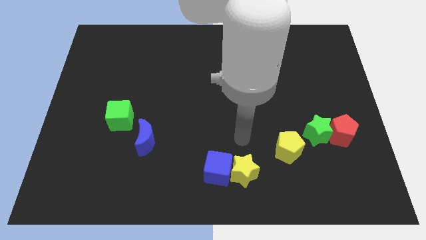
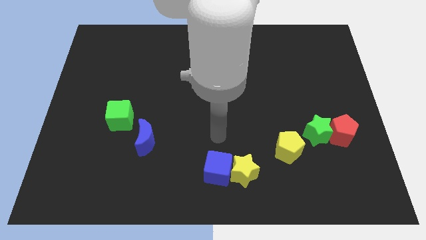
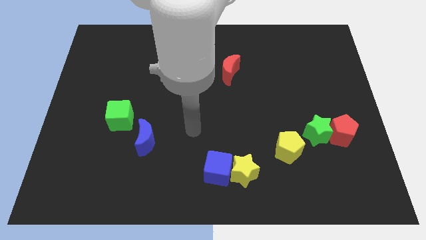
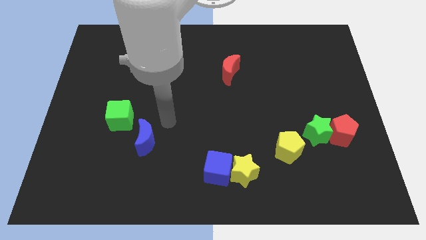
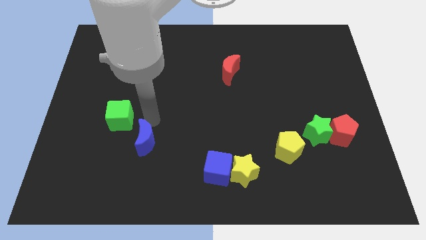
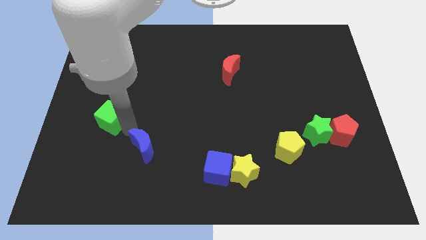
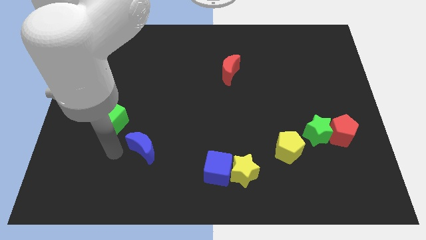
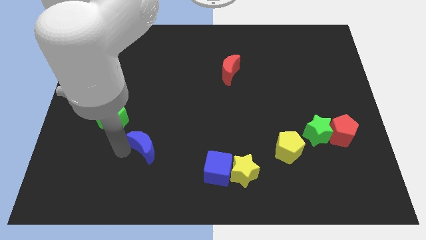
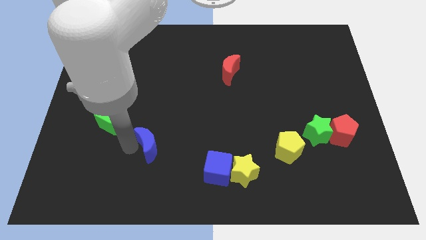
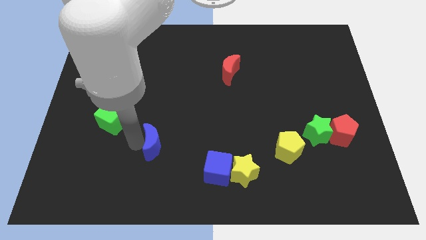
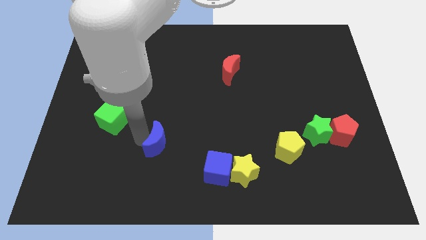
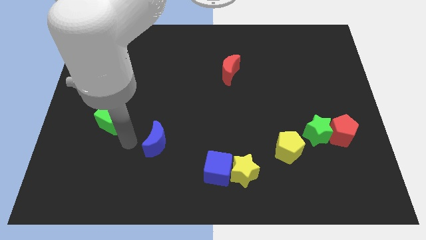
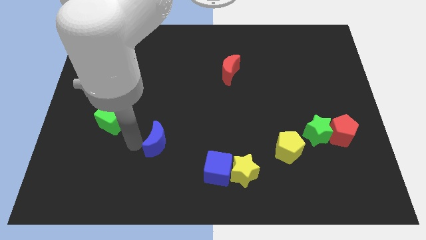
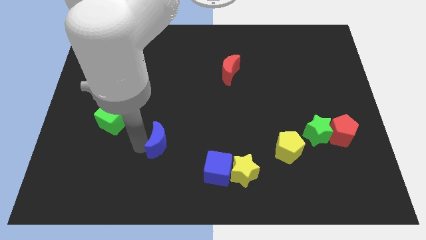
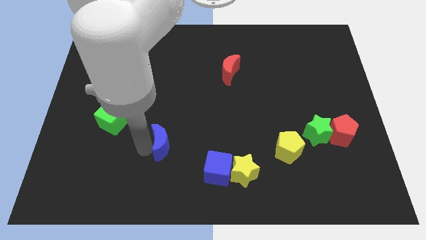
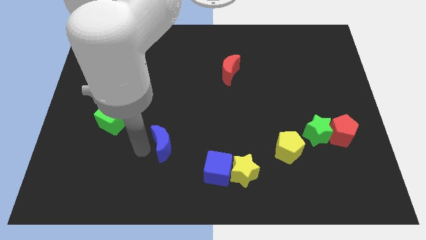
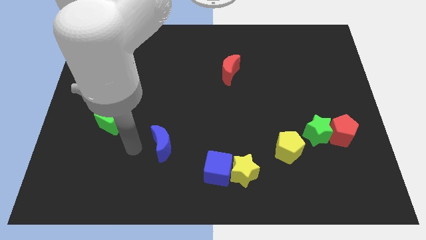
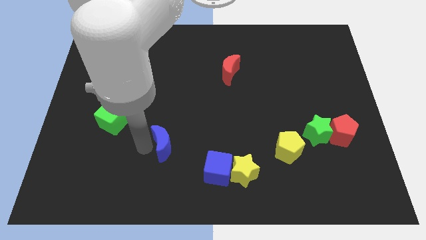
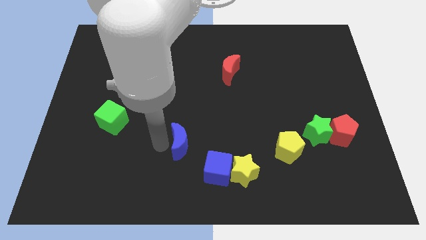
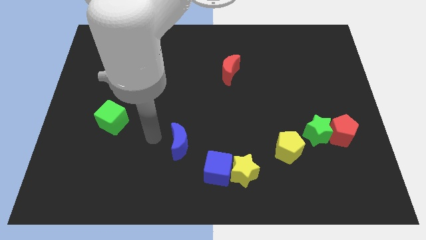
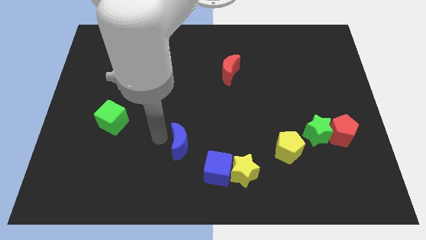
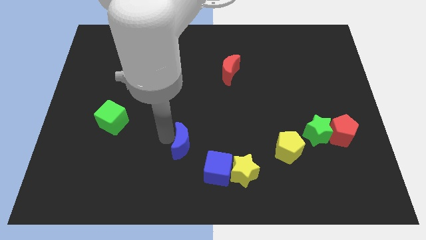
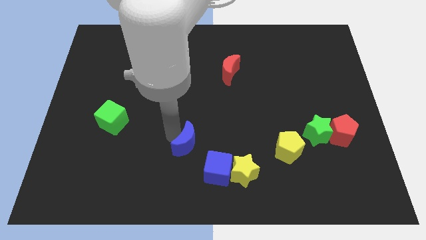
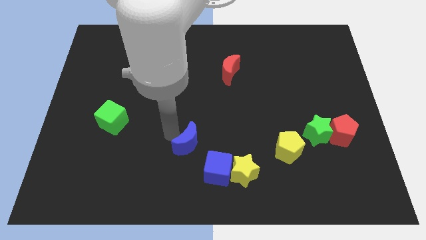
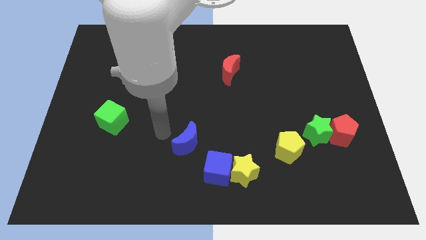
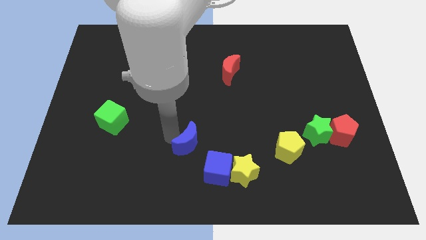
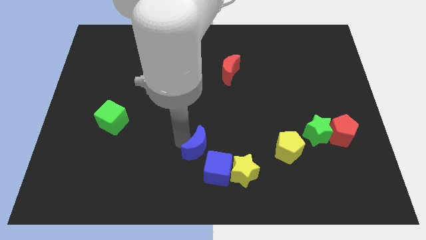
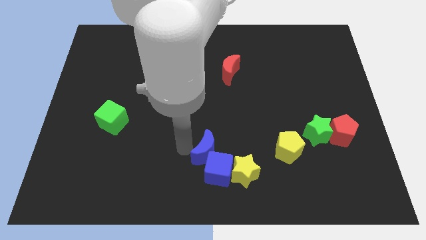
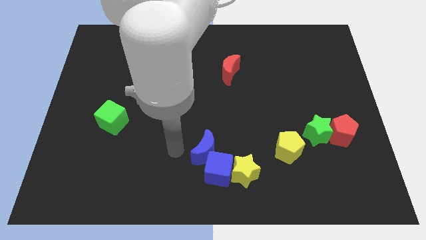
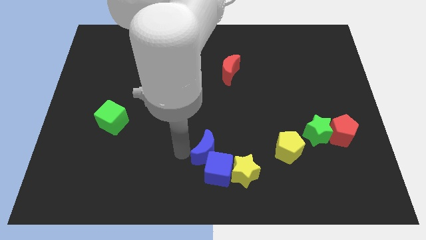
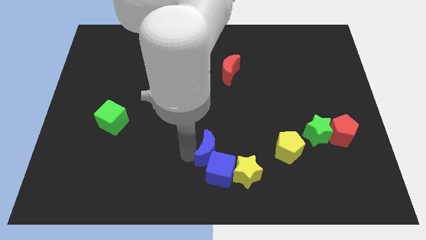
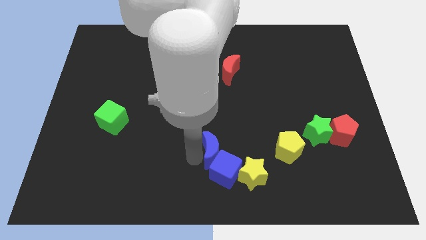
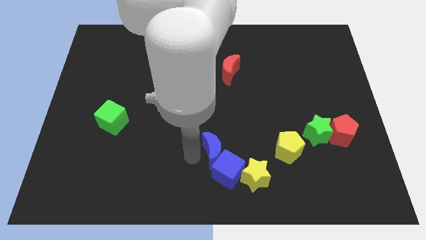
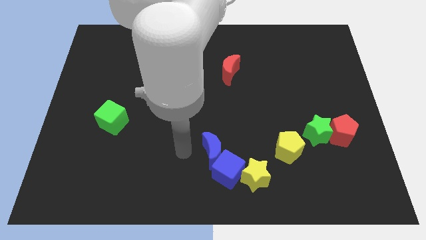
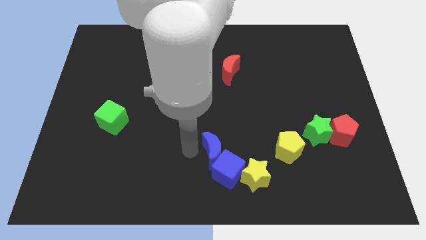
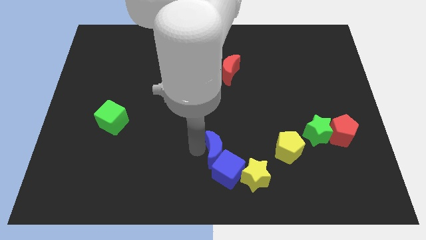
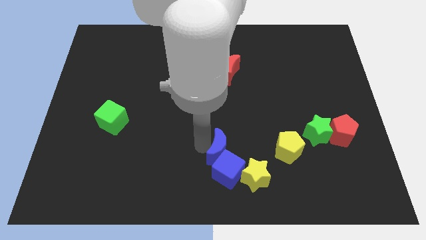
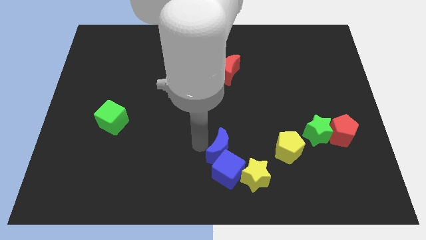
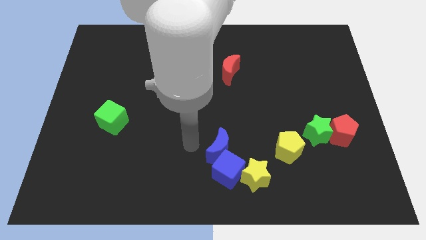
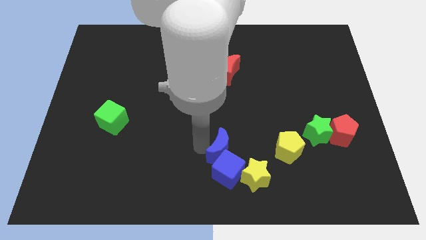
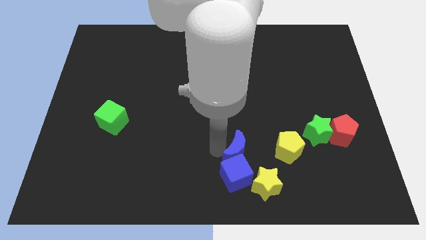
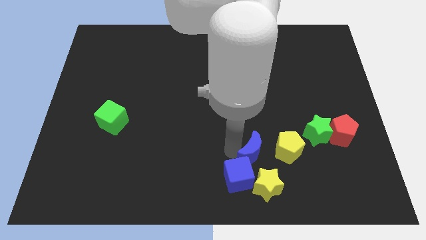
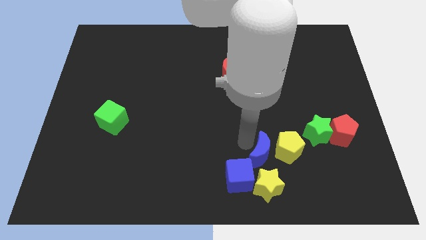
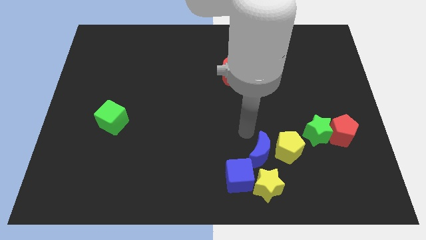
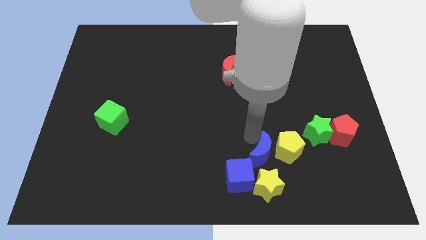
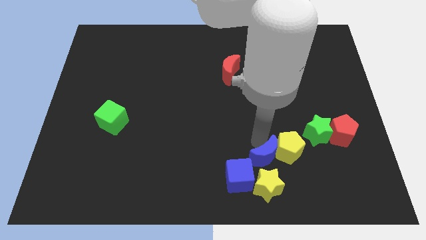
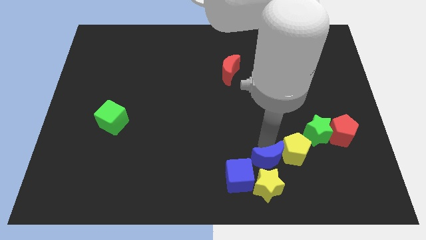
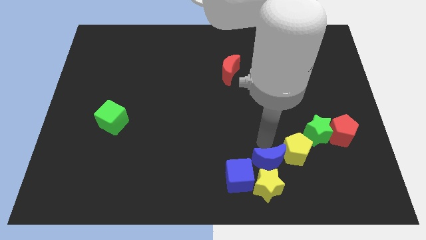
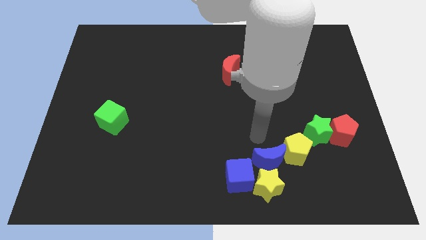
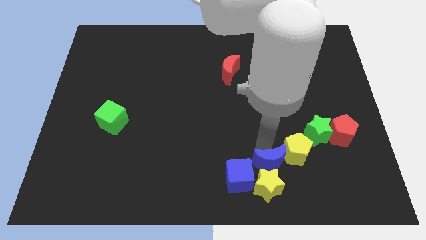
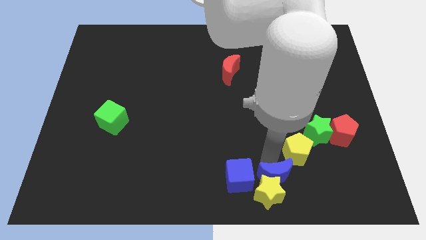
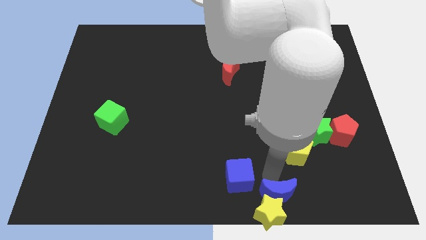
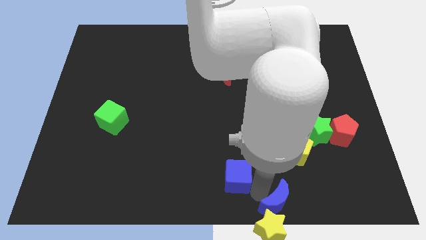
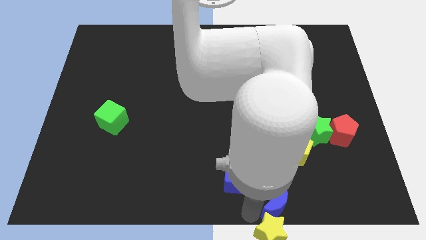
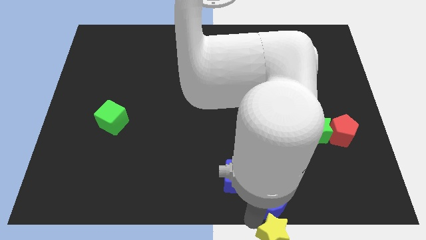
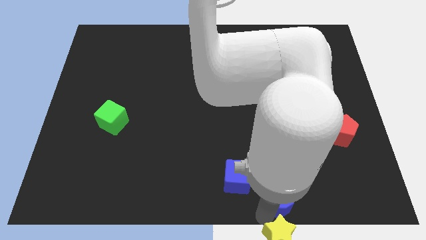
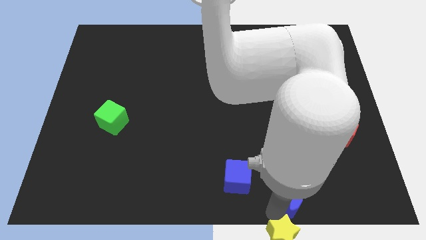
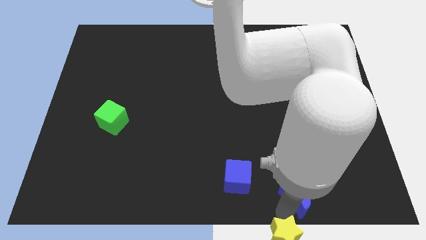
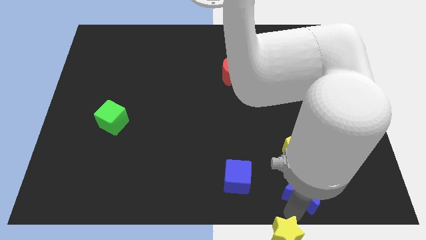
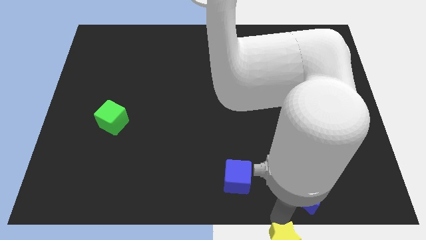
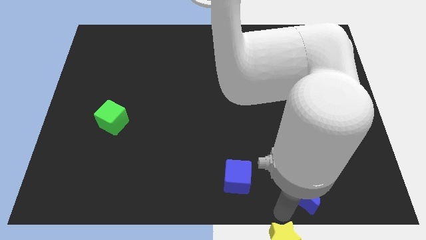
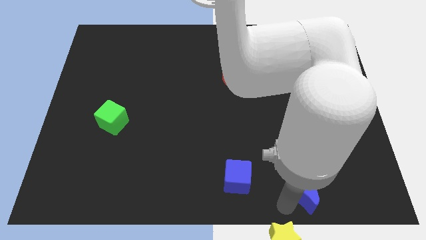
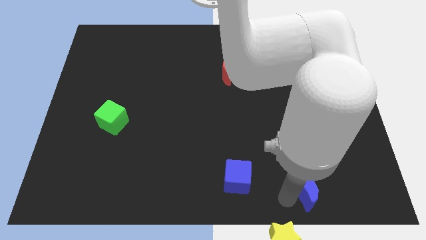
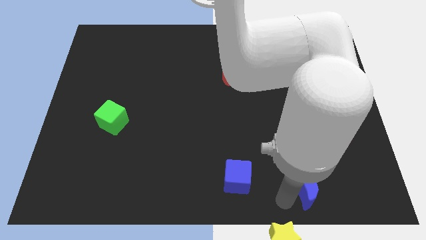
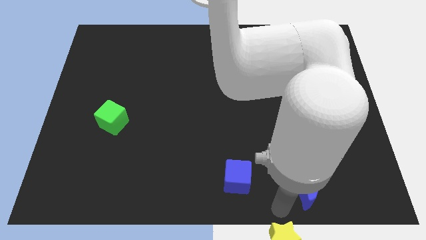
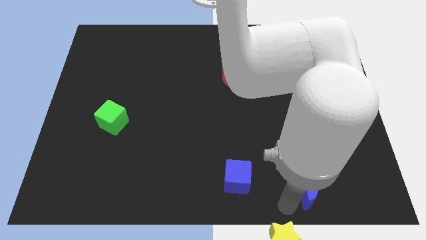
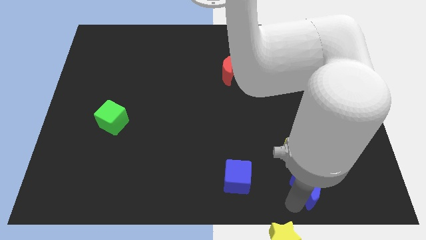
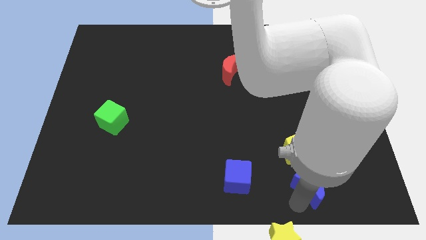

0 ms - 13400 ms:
push the blue moon to the bottom right of the yellow pentagon
